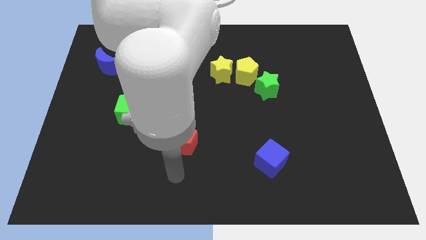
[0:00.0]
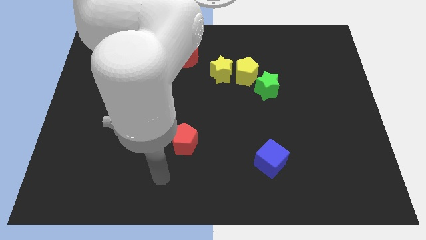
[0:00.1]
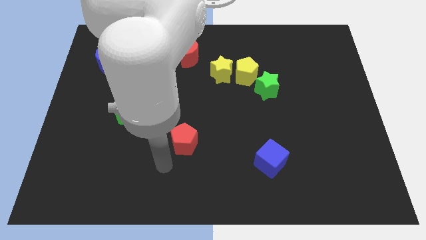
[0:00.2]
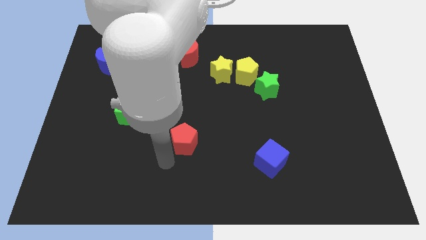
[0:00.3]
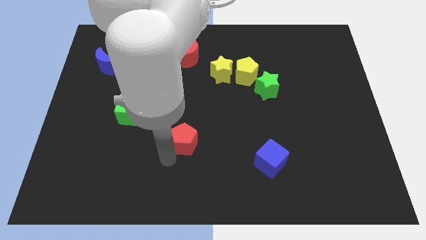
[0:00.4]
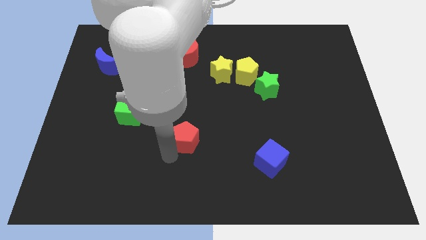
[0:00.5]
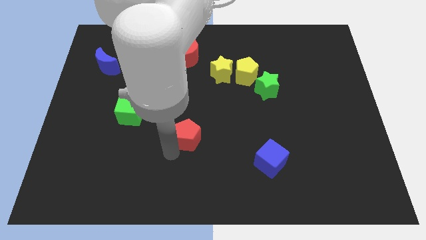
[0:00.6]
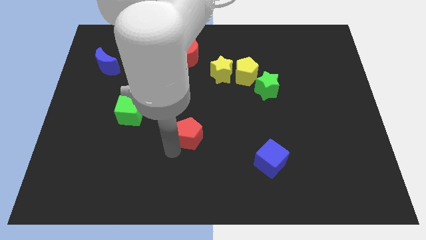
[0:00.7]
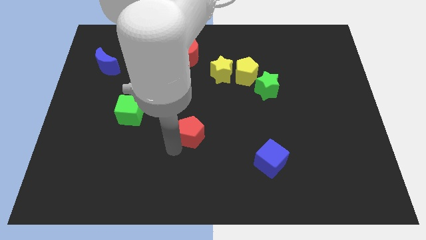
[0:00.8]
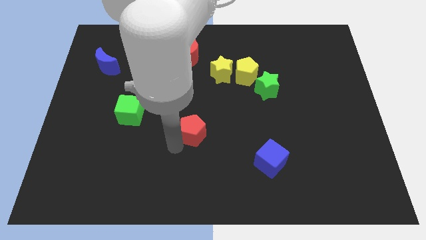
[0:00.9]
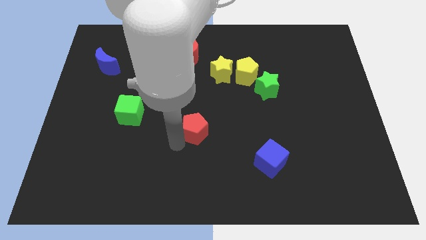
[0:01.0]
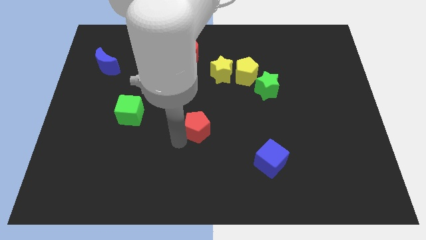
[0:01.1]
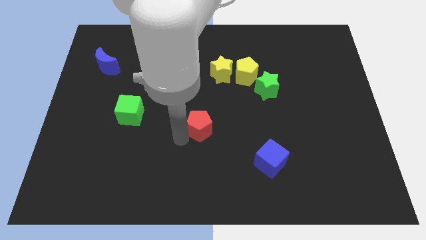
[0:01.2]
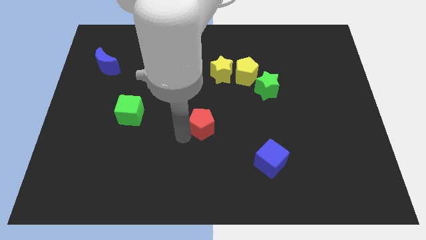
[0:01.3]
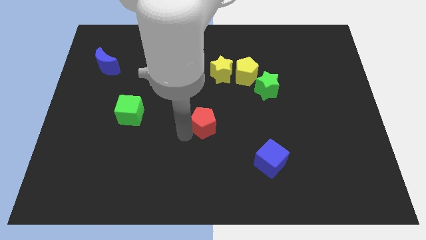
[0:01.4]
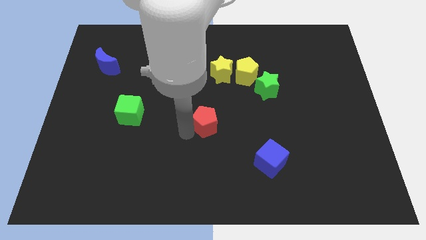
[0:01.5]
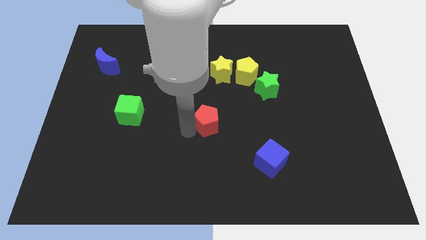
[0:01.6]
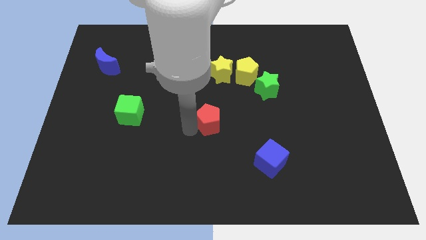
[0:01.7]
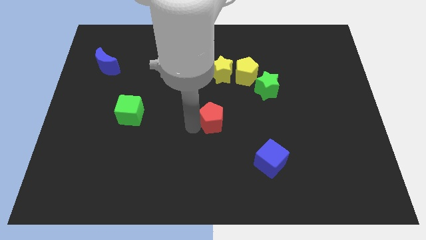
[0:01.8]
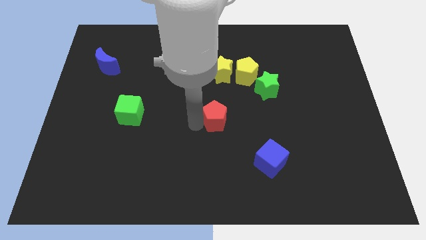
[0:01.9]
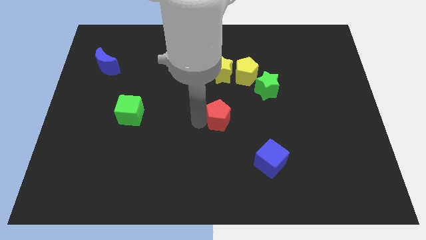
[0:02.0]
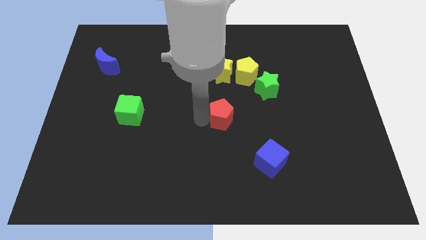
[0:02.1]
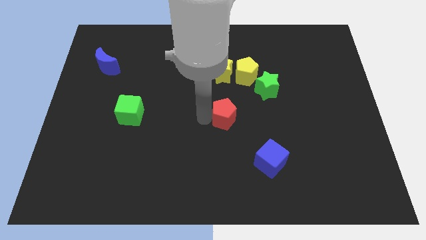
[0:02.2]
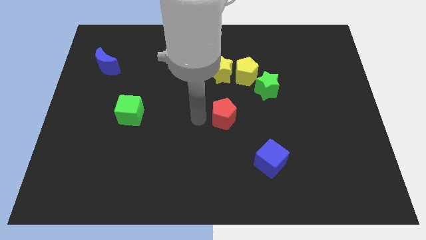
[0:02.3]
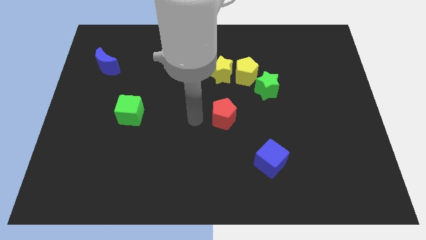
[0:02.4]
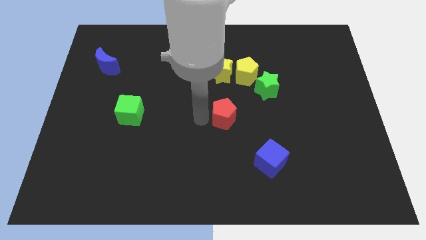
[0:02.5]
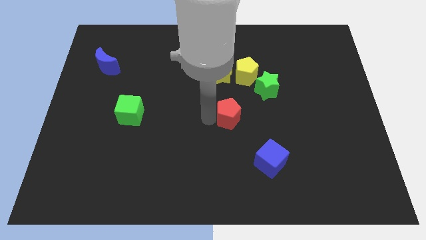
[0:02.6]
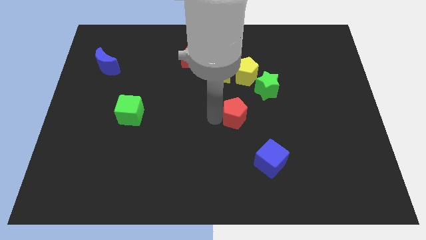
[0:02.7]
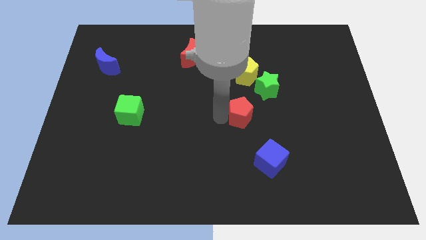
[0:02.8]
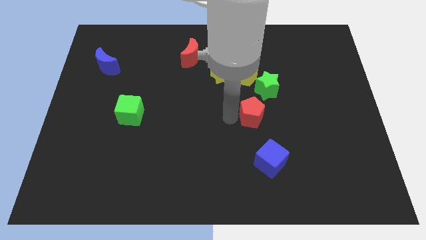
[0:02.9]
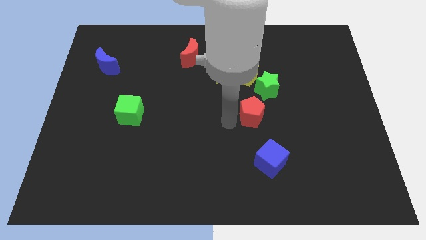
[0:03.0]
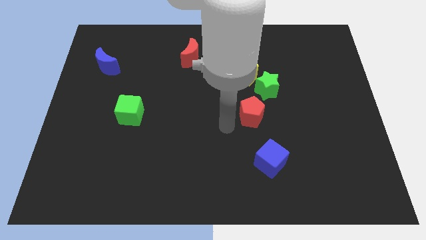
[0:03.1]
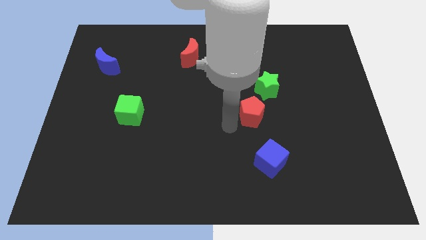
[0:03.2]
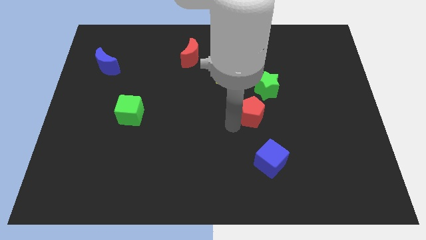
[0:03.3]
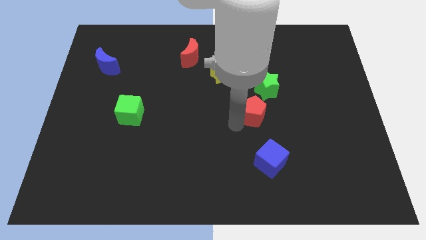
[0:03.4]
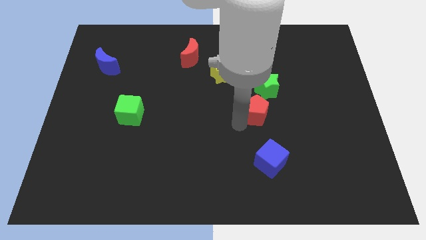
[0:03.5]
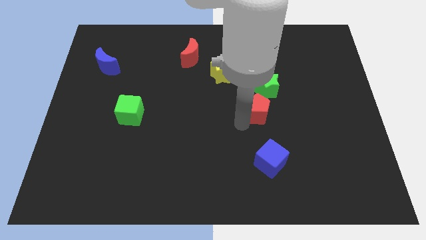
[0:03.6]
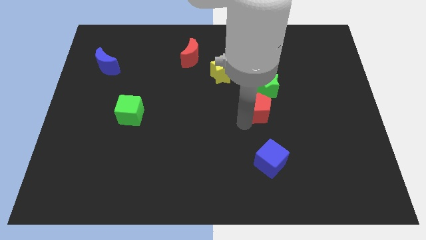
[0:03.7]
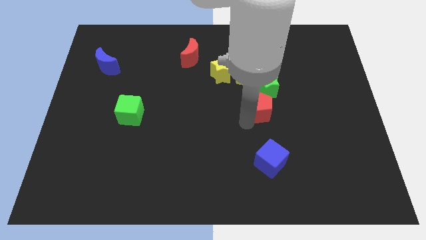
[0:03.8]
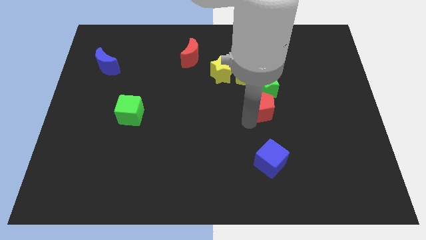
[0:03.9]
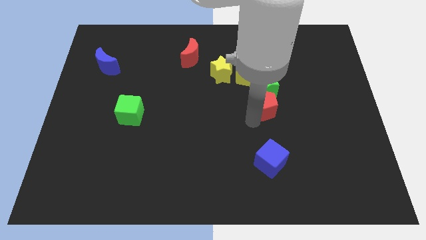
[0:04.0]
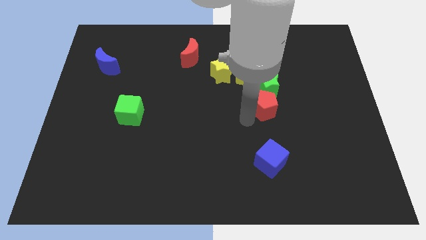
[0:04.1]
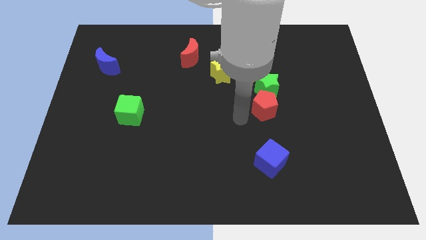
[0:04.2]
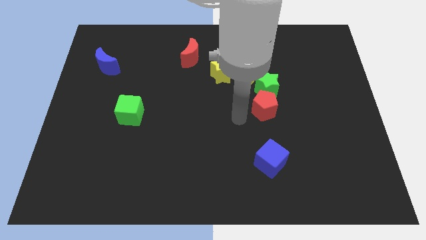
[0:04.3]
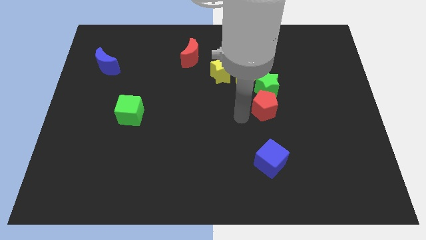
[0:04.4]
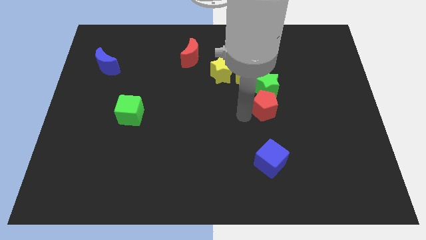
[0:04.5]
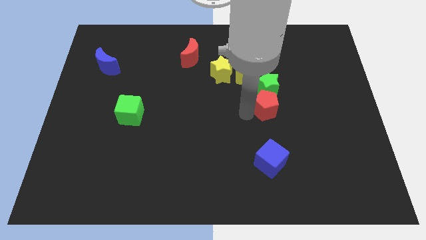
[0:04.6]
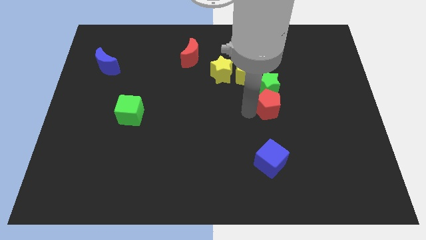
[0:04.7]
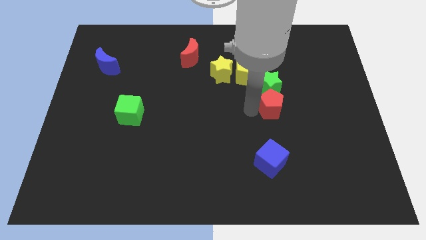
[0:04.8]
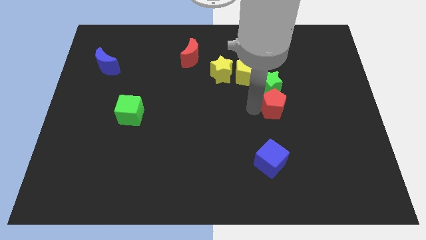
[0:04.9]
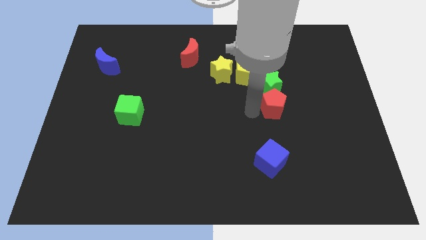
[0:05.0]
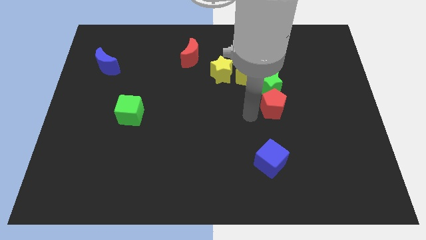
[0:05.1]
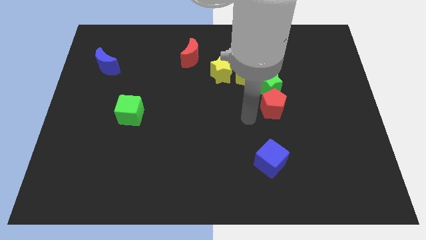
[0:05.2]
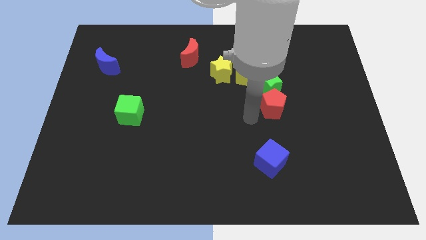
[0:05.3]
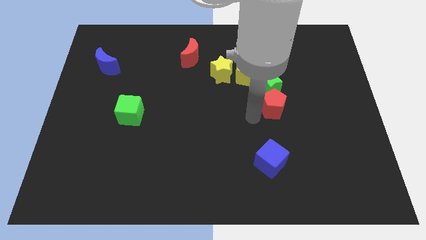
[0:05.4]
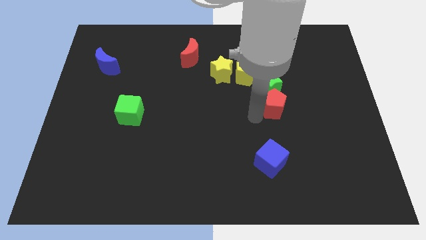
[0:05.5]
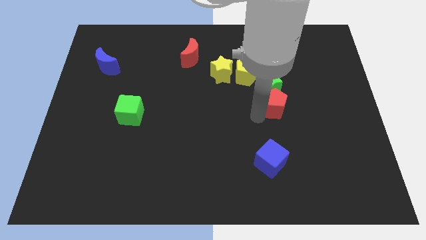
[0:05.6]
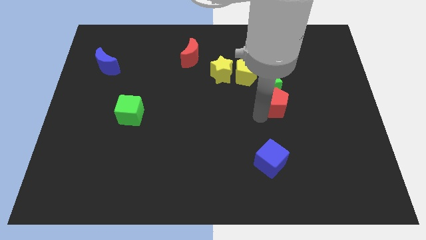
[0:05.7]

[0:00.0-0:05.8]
push the red pentagon diagonally upwards and to the right

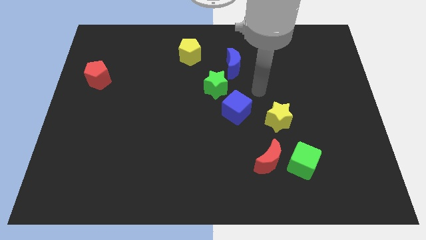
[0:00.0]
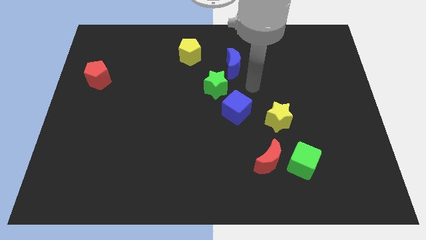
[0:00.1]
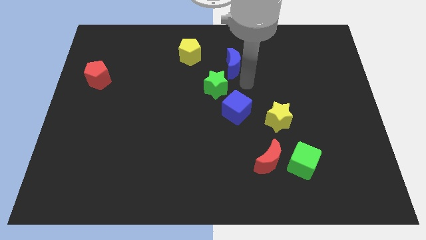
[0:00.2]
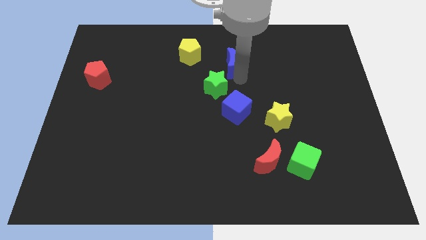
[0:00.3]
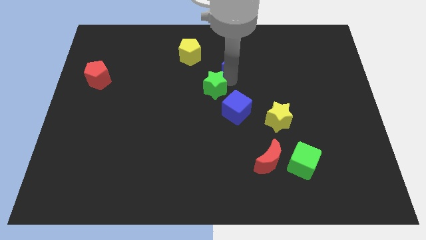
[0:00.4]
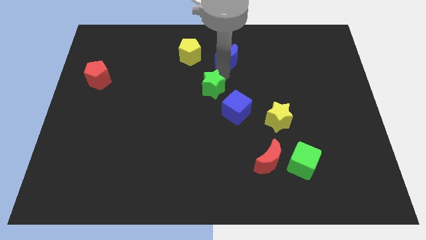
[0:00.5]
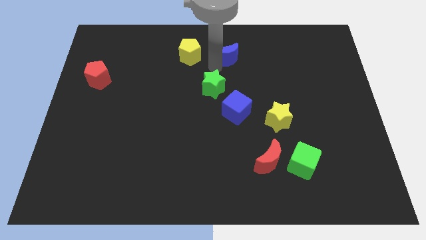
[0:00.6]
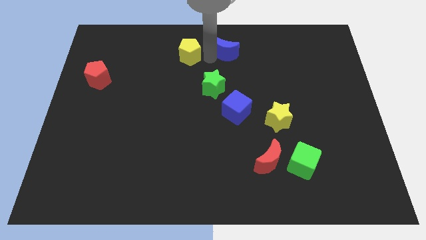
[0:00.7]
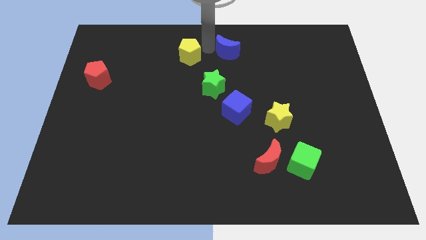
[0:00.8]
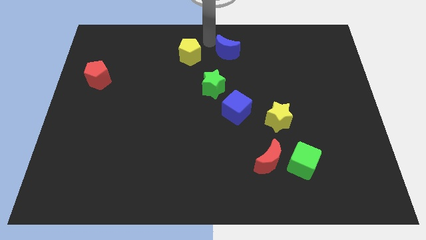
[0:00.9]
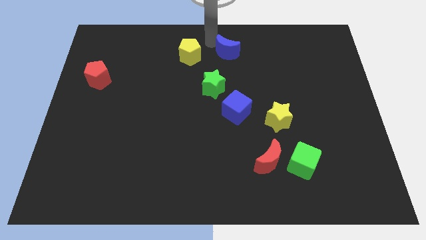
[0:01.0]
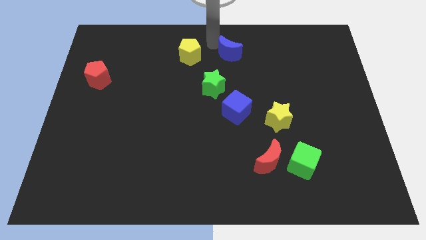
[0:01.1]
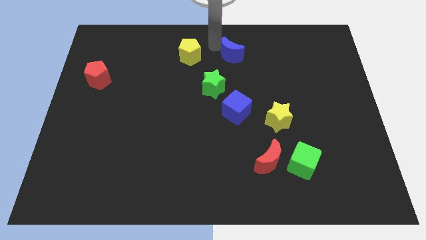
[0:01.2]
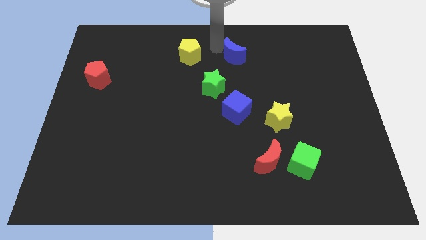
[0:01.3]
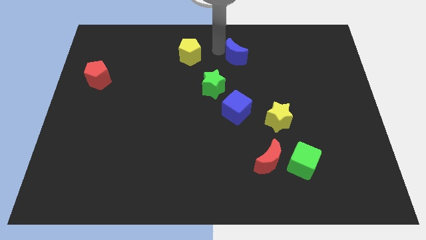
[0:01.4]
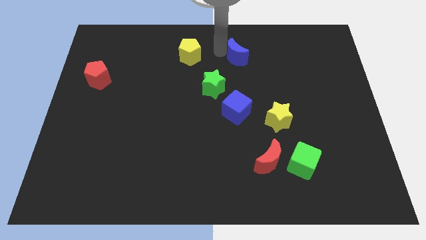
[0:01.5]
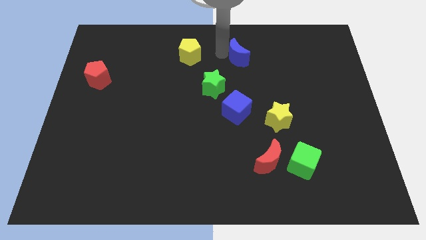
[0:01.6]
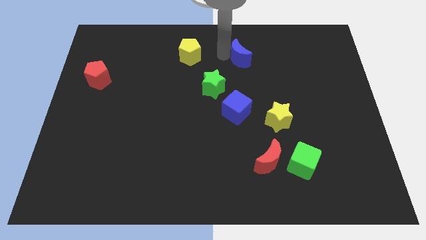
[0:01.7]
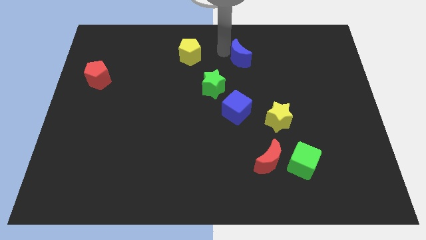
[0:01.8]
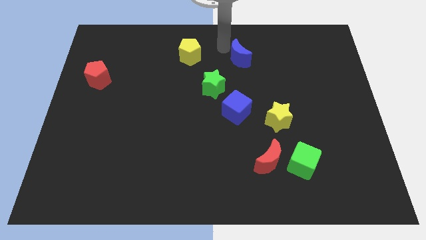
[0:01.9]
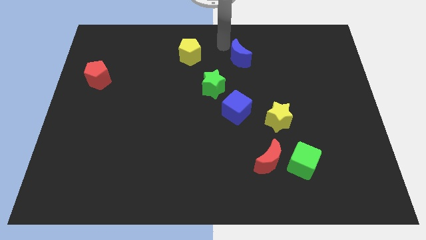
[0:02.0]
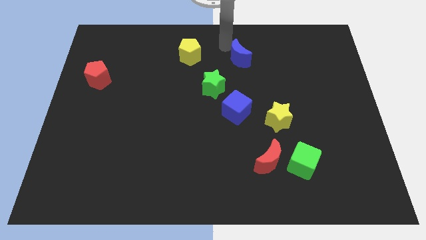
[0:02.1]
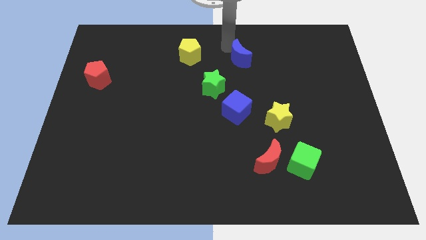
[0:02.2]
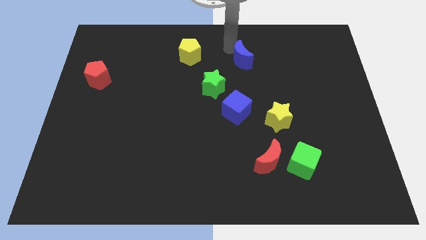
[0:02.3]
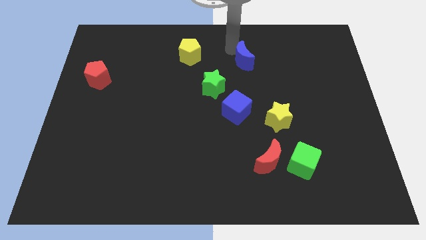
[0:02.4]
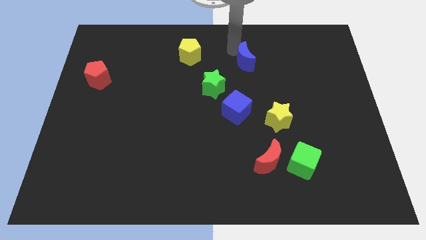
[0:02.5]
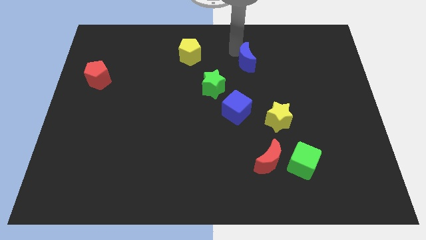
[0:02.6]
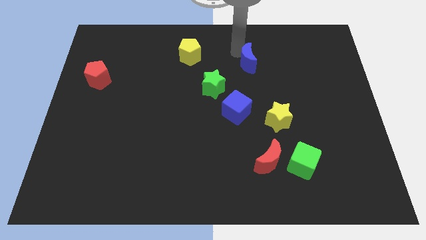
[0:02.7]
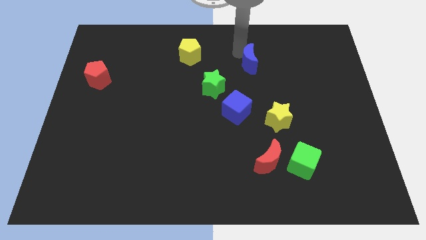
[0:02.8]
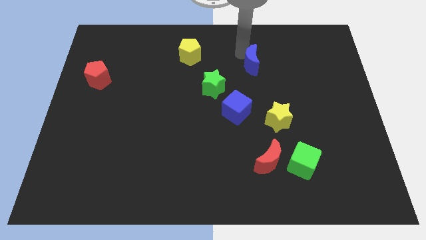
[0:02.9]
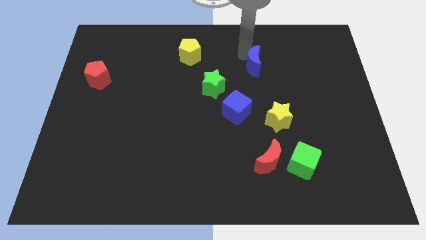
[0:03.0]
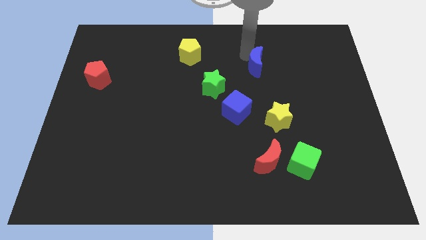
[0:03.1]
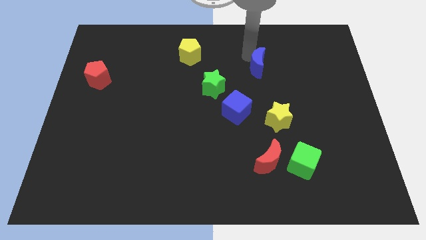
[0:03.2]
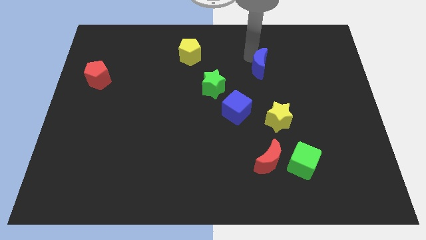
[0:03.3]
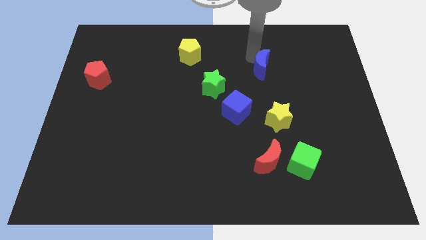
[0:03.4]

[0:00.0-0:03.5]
push the blue moon a bit right
